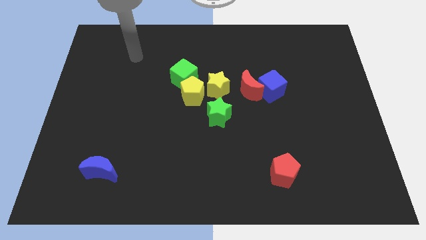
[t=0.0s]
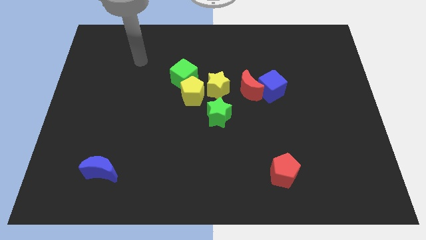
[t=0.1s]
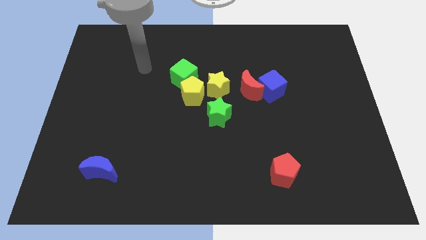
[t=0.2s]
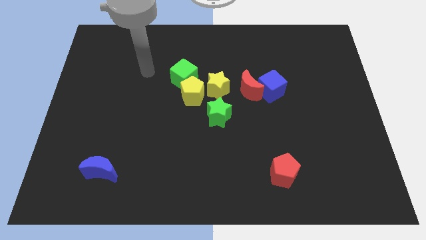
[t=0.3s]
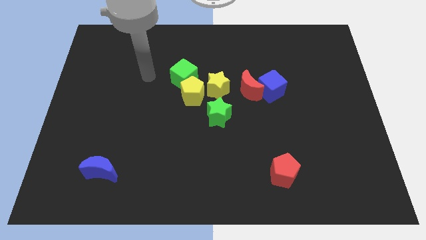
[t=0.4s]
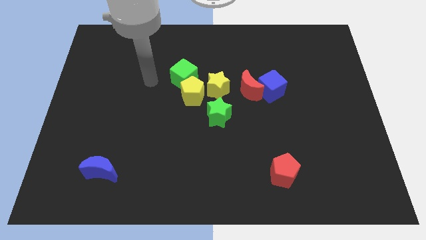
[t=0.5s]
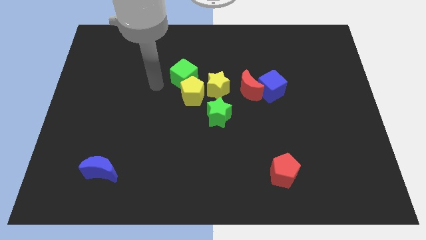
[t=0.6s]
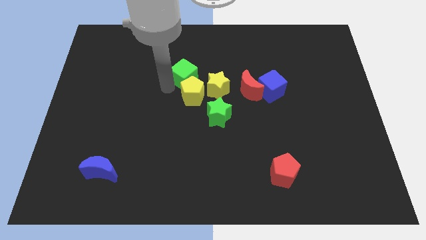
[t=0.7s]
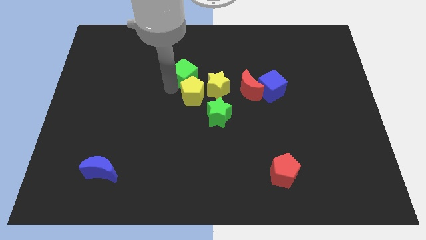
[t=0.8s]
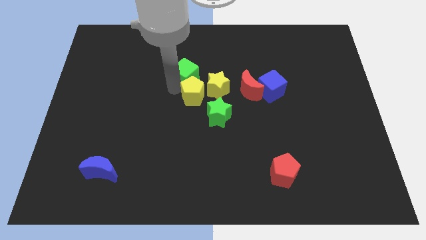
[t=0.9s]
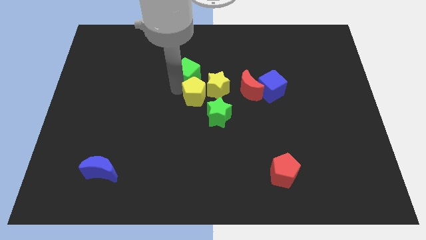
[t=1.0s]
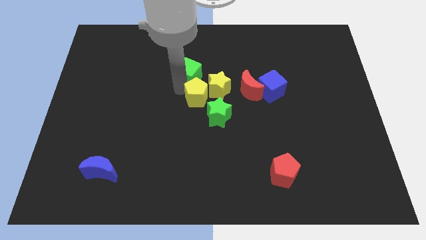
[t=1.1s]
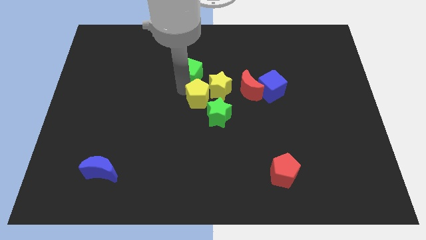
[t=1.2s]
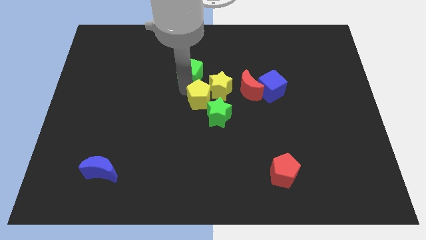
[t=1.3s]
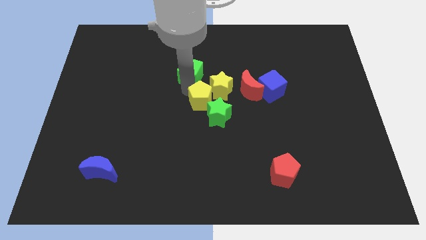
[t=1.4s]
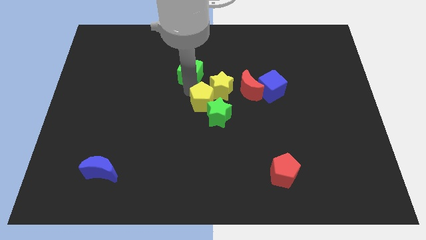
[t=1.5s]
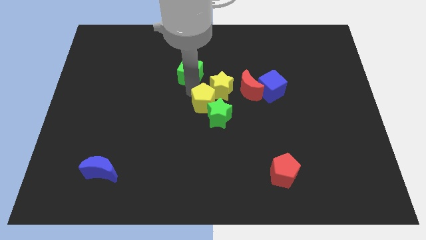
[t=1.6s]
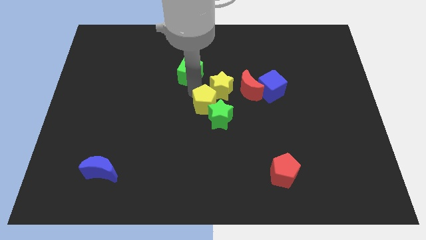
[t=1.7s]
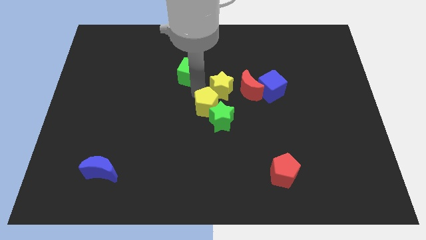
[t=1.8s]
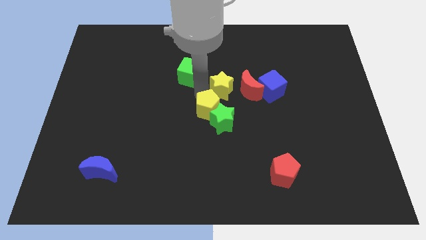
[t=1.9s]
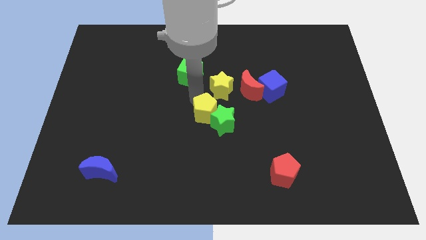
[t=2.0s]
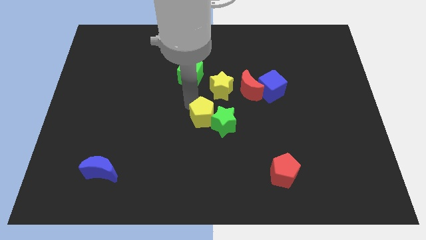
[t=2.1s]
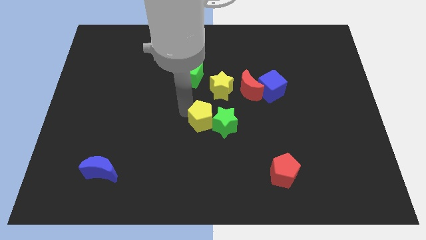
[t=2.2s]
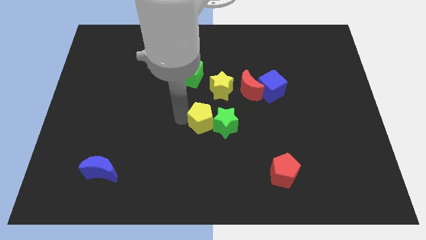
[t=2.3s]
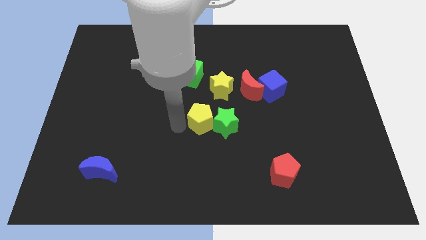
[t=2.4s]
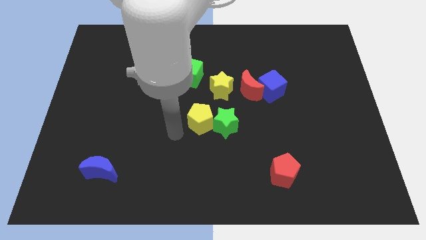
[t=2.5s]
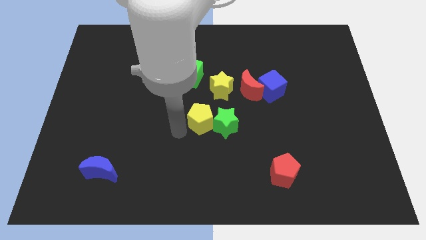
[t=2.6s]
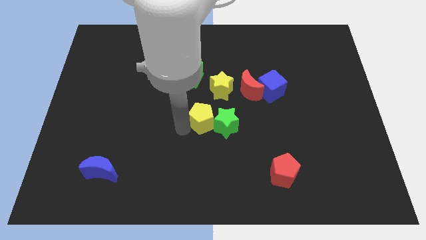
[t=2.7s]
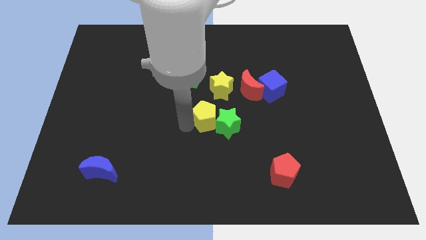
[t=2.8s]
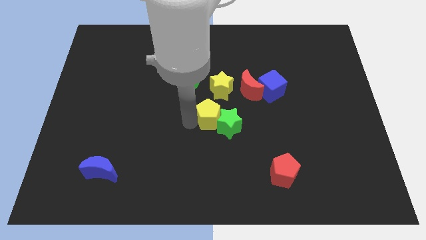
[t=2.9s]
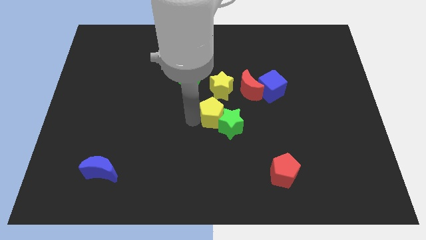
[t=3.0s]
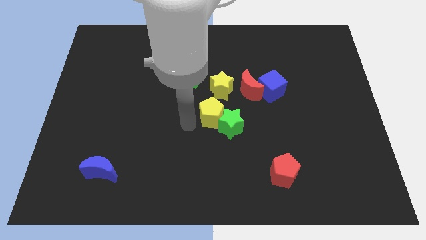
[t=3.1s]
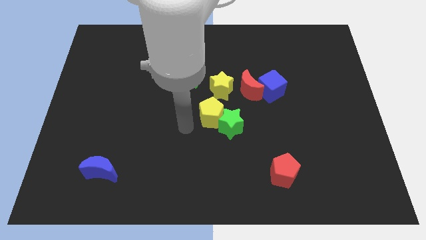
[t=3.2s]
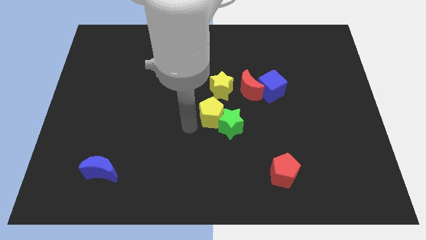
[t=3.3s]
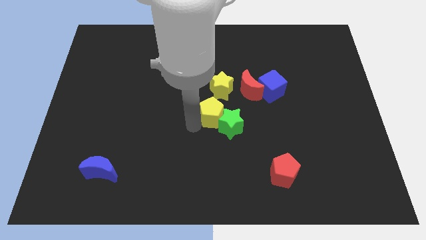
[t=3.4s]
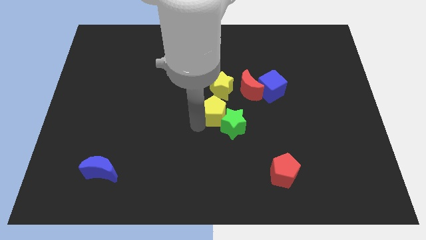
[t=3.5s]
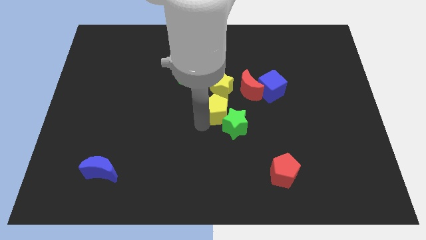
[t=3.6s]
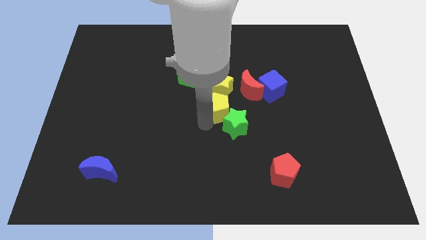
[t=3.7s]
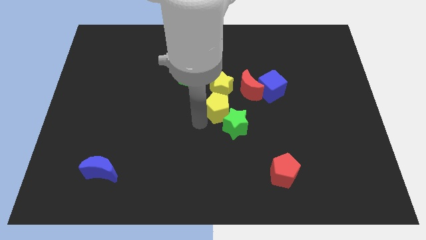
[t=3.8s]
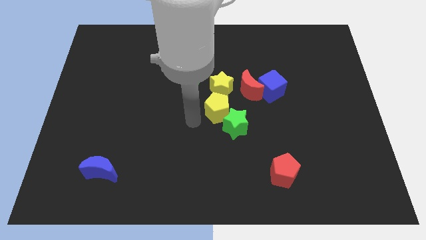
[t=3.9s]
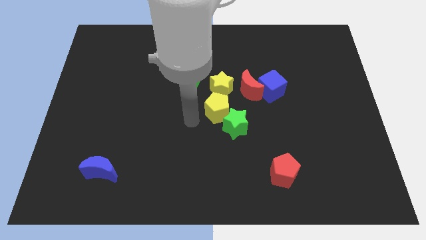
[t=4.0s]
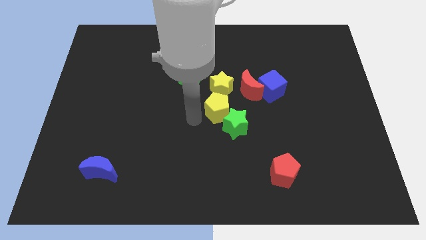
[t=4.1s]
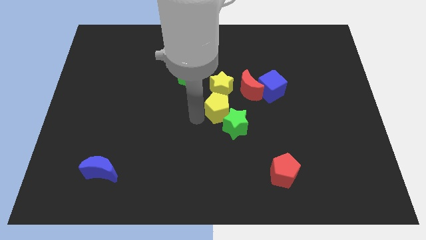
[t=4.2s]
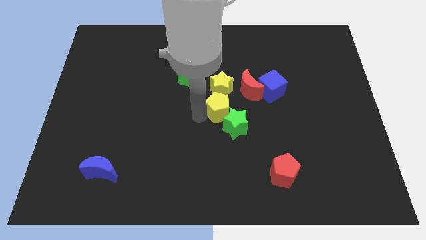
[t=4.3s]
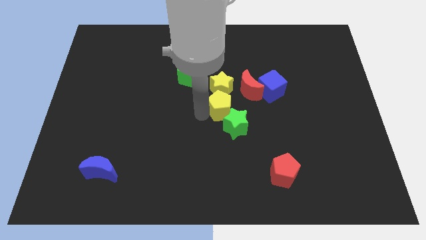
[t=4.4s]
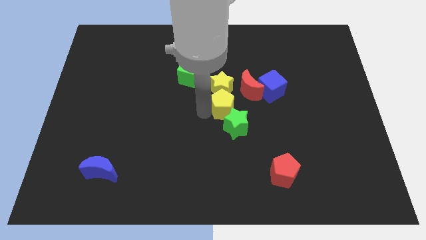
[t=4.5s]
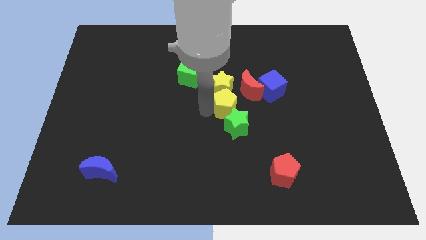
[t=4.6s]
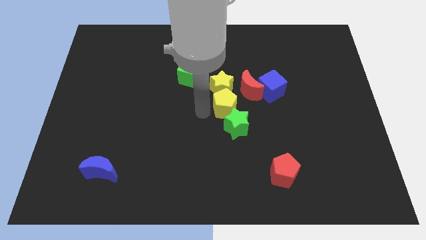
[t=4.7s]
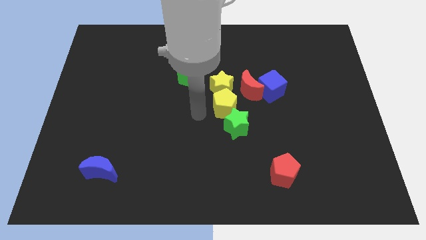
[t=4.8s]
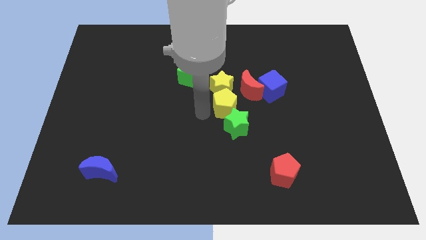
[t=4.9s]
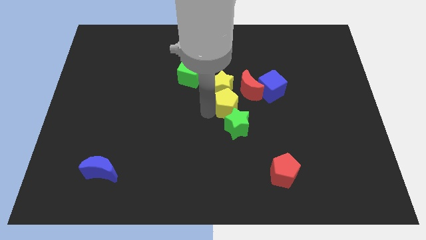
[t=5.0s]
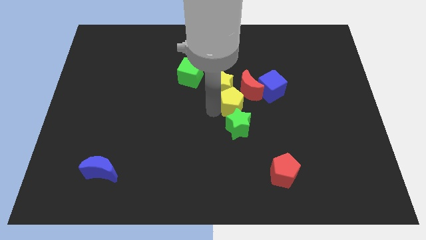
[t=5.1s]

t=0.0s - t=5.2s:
slide the yellow pentagon to the bottom of the red moon

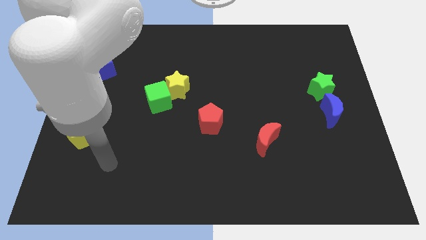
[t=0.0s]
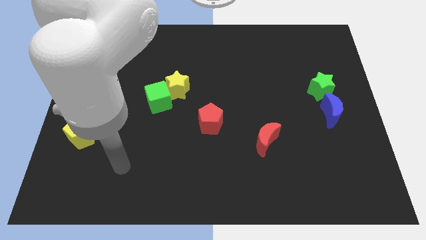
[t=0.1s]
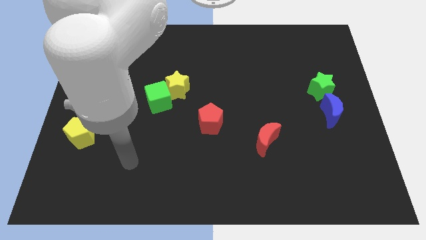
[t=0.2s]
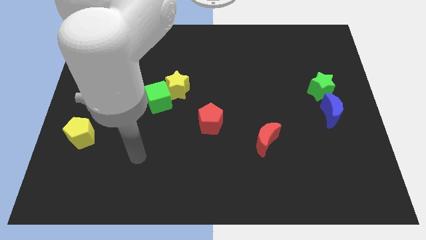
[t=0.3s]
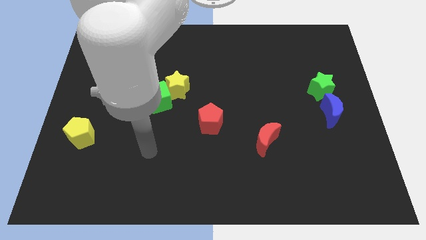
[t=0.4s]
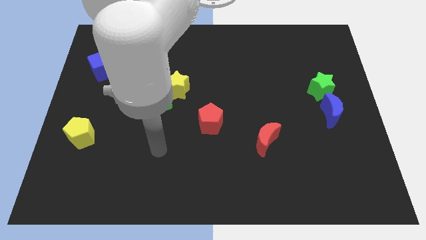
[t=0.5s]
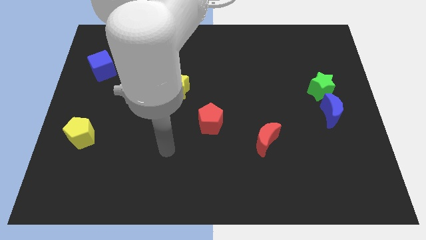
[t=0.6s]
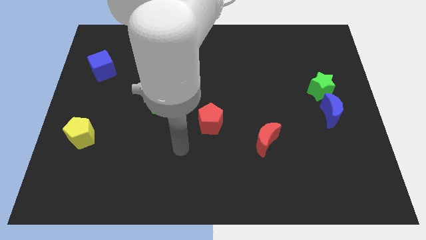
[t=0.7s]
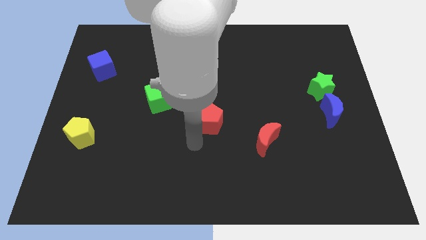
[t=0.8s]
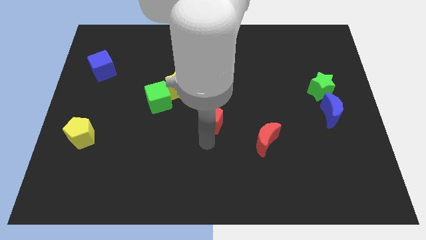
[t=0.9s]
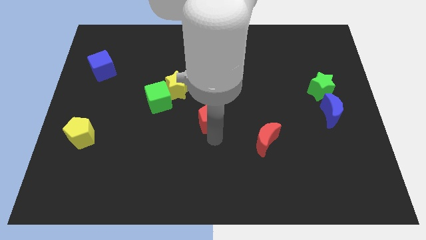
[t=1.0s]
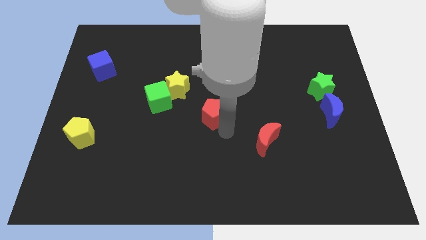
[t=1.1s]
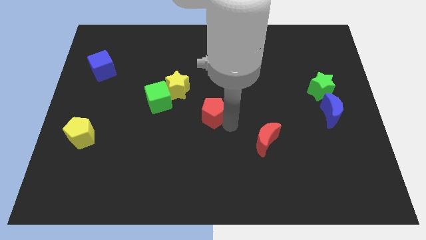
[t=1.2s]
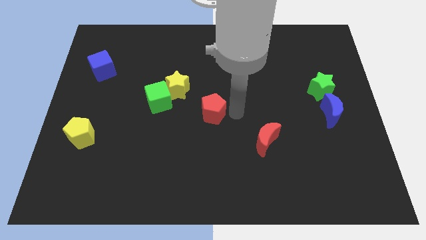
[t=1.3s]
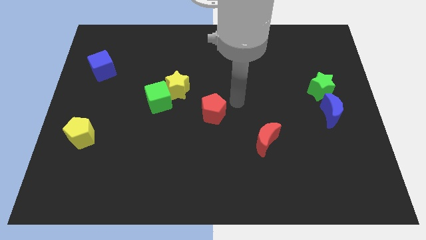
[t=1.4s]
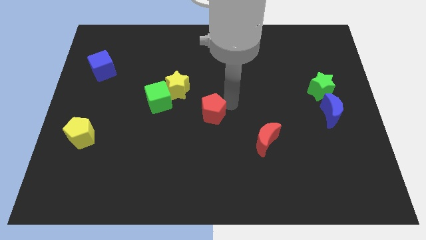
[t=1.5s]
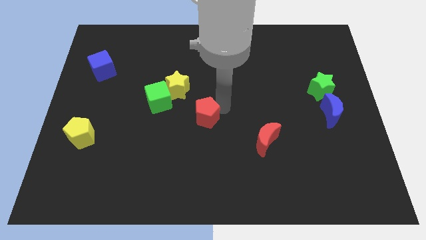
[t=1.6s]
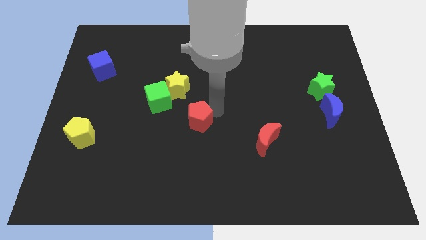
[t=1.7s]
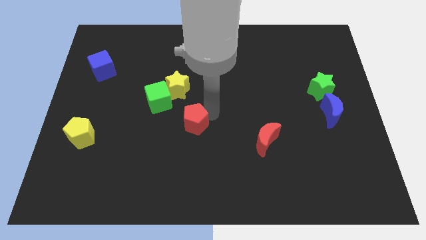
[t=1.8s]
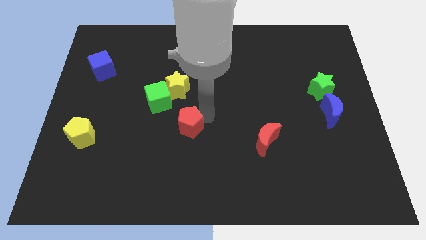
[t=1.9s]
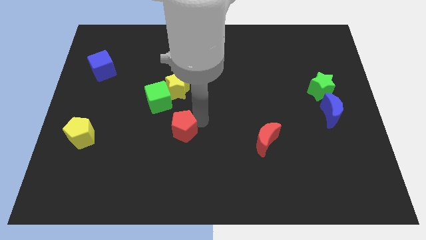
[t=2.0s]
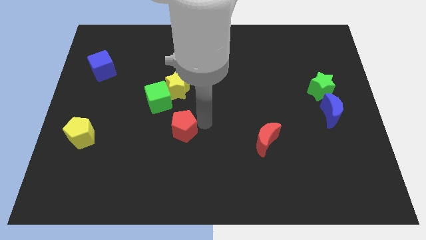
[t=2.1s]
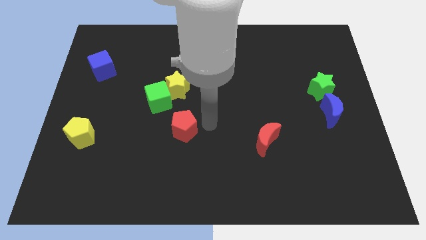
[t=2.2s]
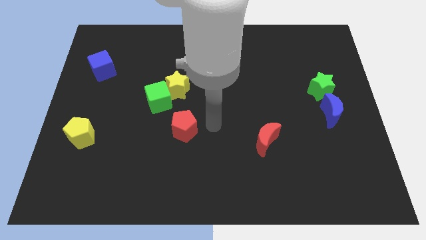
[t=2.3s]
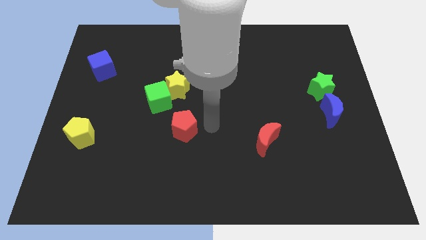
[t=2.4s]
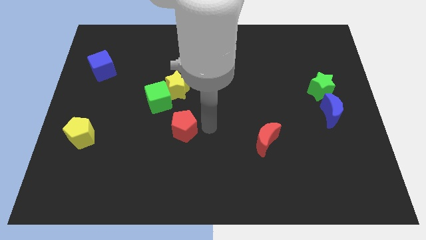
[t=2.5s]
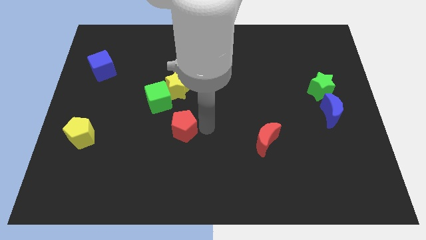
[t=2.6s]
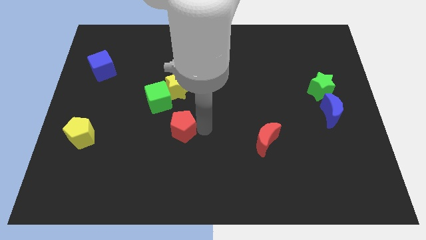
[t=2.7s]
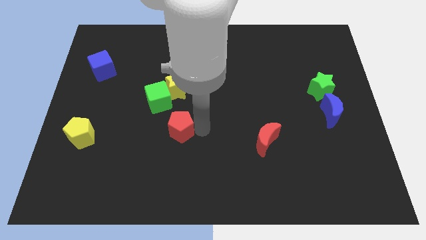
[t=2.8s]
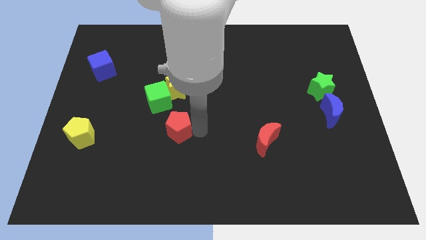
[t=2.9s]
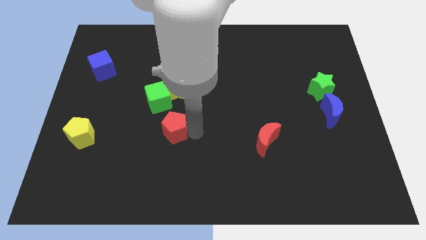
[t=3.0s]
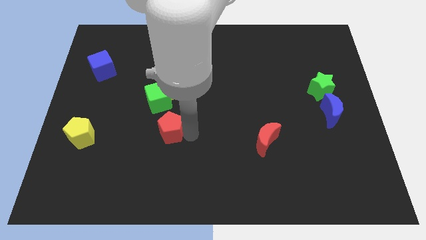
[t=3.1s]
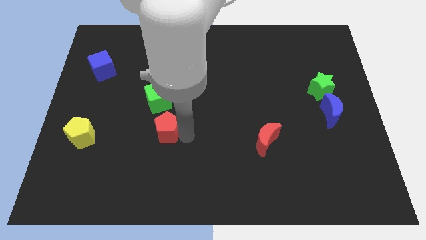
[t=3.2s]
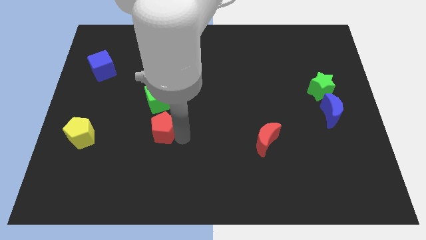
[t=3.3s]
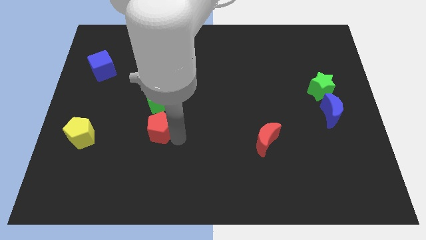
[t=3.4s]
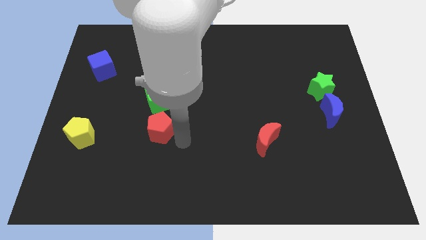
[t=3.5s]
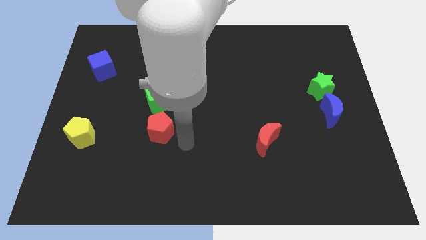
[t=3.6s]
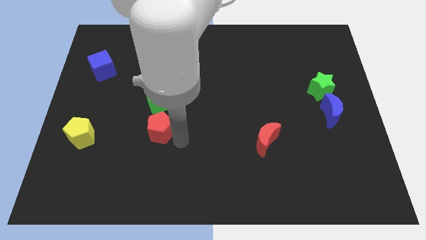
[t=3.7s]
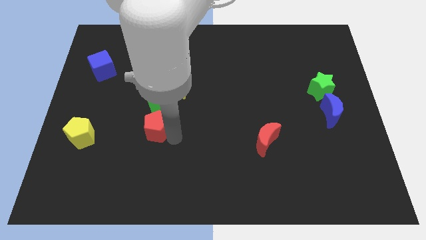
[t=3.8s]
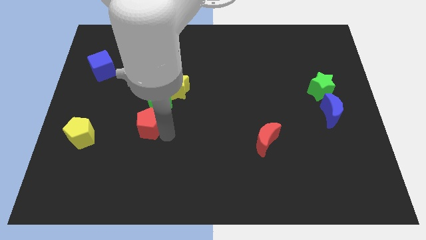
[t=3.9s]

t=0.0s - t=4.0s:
put the red pentagon diagonally down and to the left of the green cube
